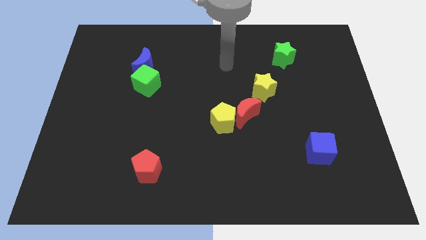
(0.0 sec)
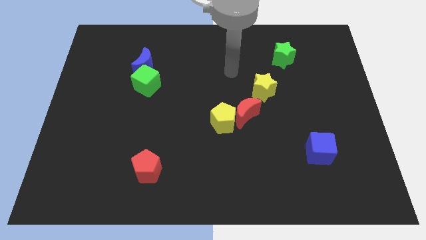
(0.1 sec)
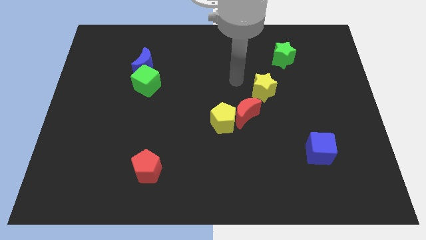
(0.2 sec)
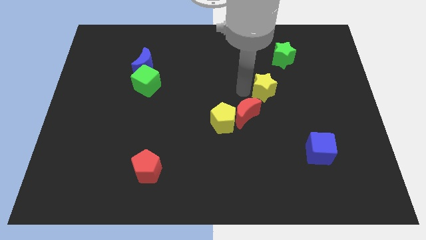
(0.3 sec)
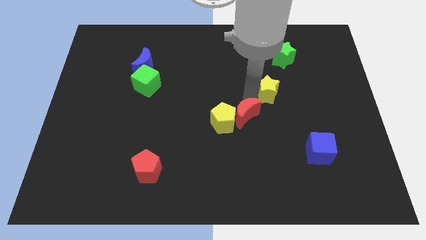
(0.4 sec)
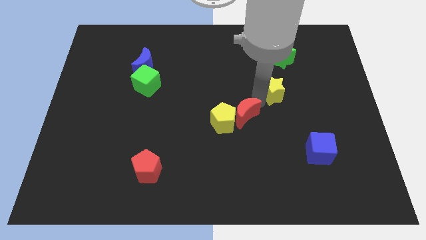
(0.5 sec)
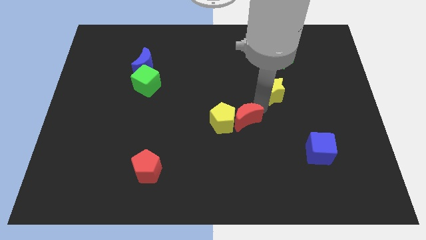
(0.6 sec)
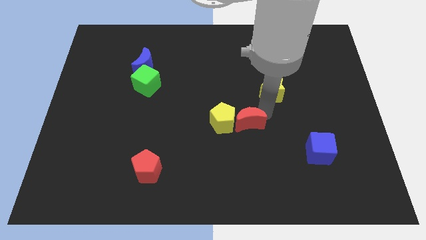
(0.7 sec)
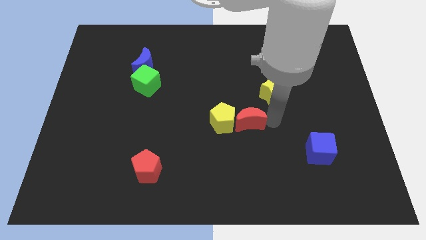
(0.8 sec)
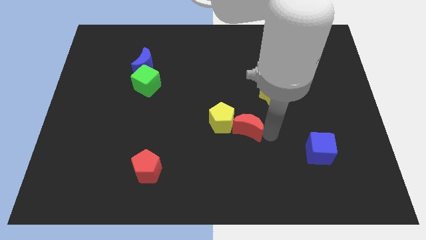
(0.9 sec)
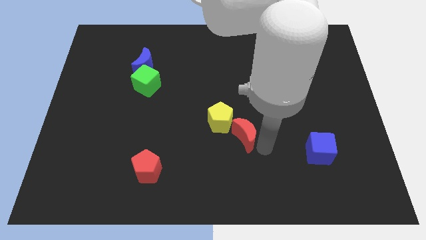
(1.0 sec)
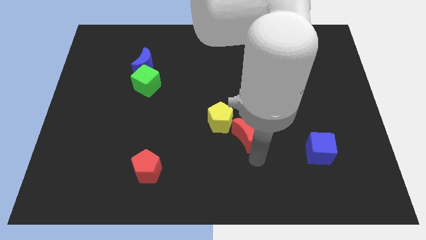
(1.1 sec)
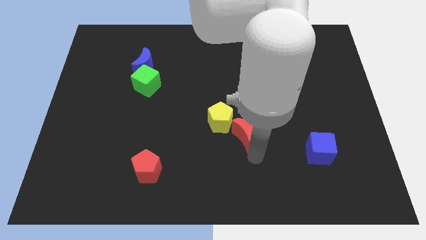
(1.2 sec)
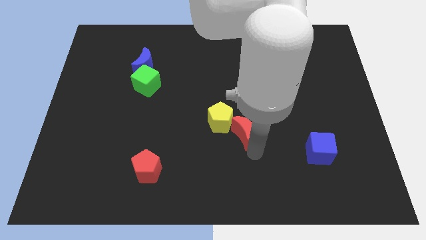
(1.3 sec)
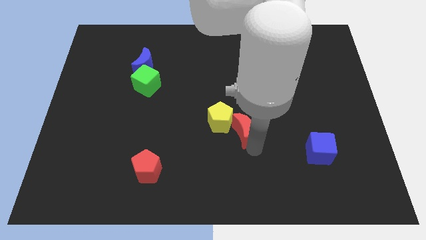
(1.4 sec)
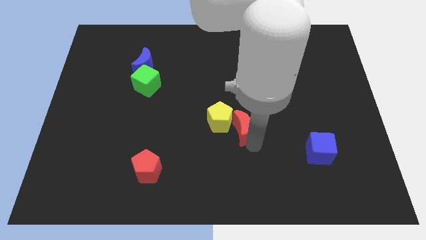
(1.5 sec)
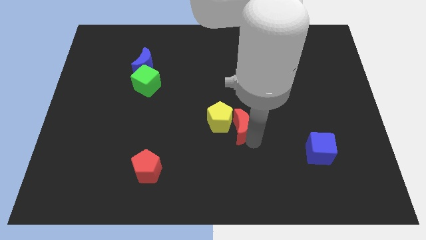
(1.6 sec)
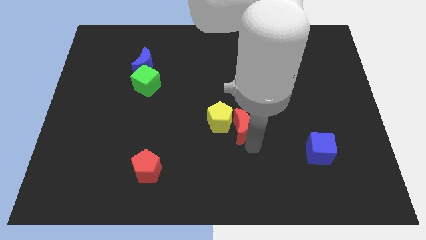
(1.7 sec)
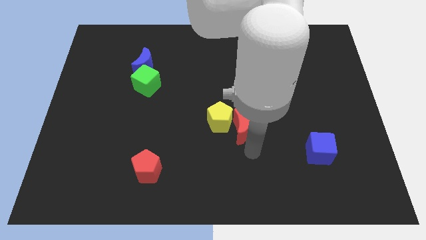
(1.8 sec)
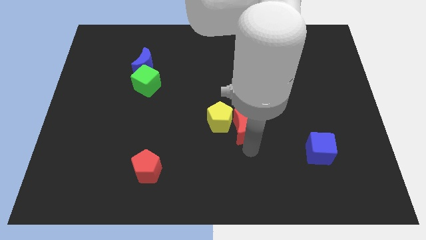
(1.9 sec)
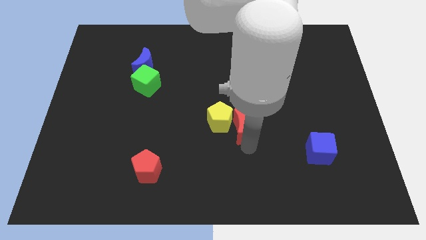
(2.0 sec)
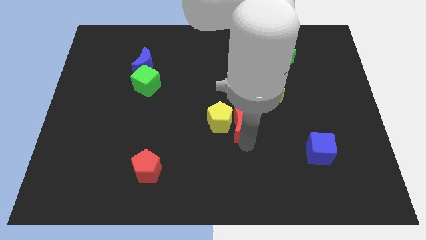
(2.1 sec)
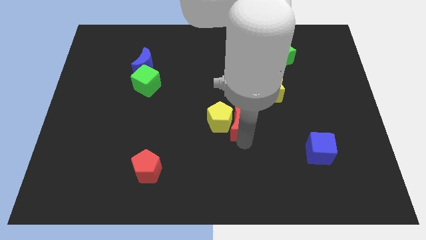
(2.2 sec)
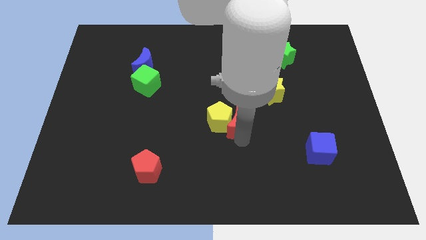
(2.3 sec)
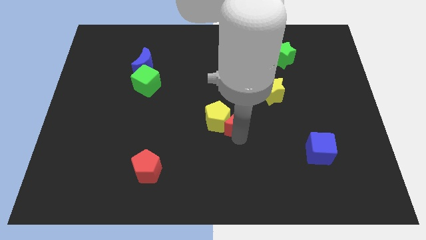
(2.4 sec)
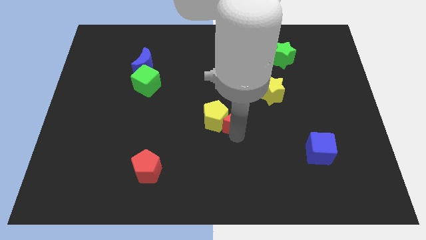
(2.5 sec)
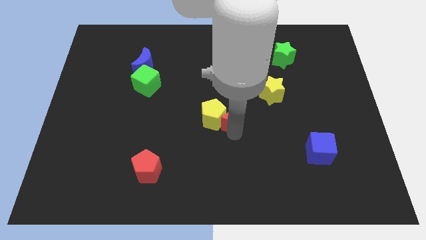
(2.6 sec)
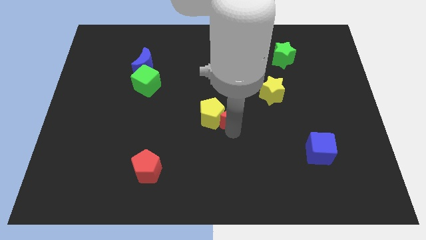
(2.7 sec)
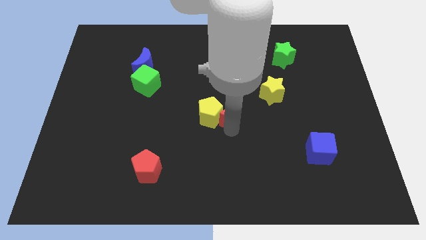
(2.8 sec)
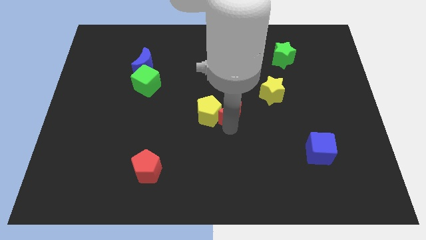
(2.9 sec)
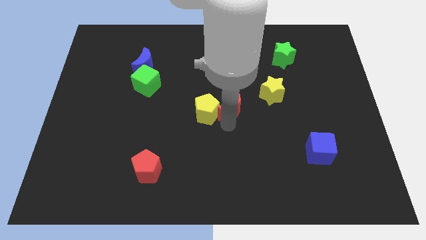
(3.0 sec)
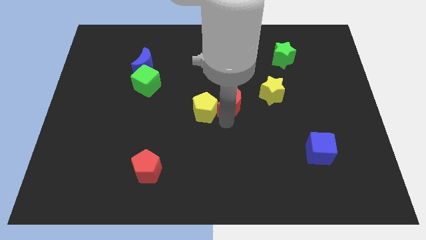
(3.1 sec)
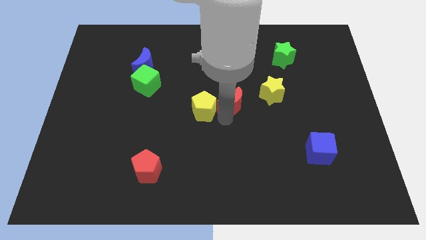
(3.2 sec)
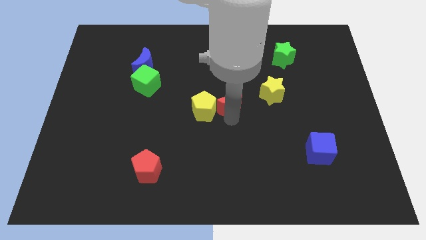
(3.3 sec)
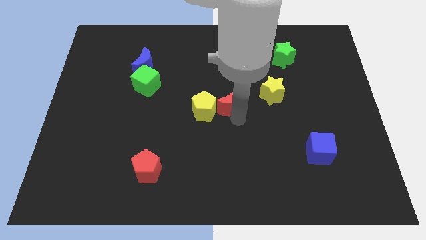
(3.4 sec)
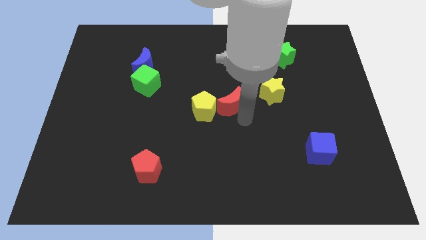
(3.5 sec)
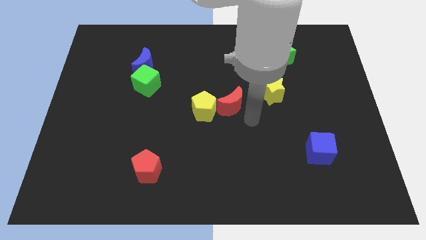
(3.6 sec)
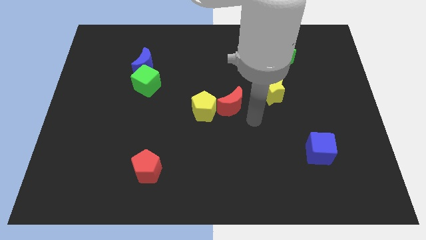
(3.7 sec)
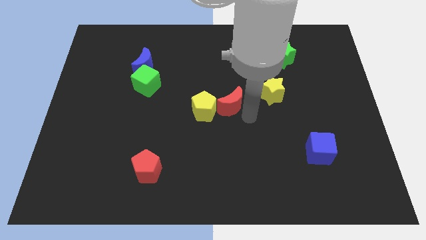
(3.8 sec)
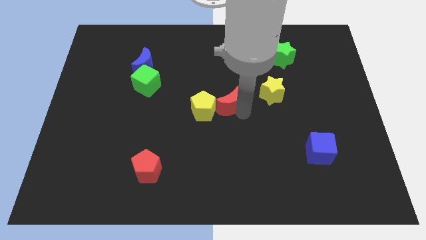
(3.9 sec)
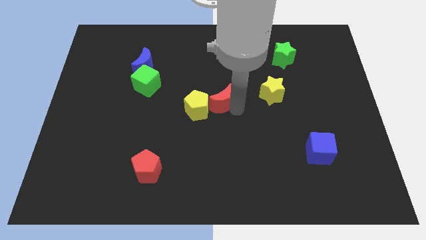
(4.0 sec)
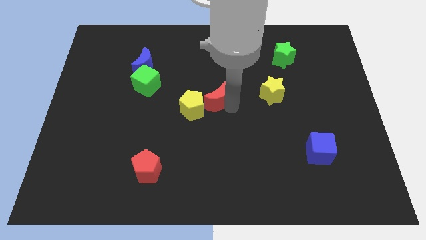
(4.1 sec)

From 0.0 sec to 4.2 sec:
slightly move the red moon up and left

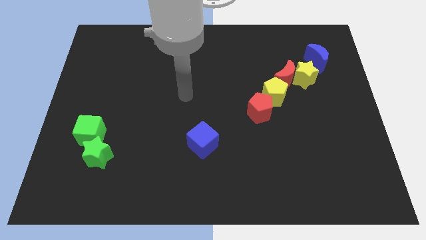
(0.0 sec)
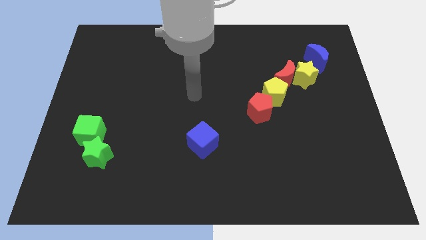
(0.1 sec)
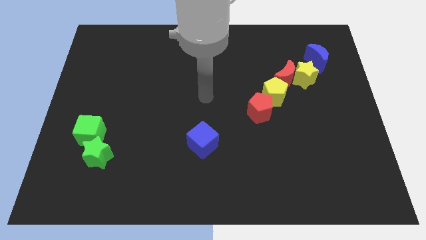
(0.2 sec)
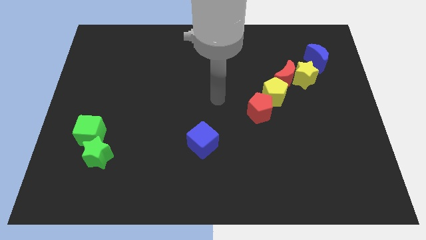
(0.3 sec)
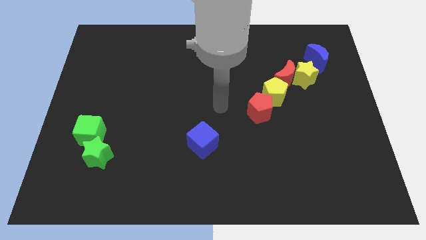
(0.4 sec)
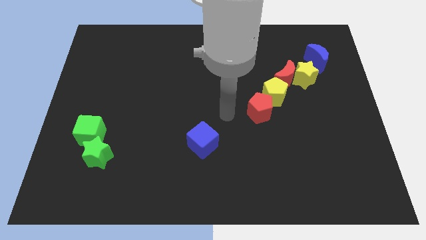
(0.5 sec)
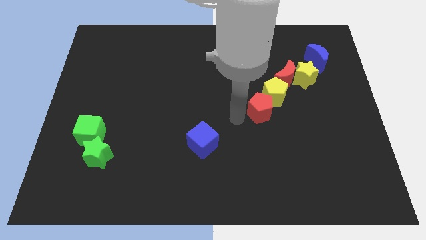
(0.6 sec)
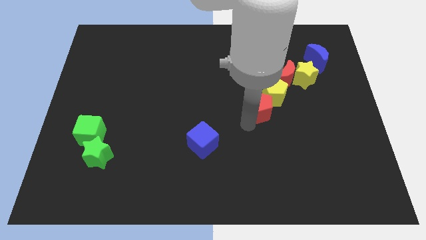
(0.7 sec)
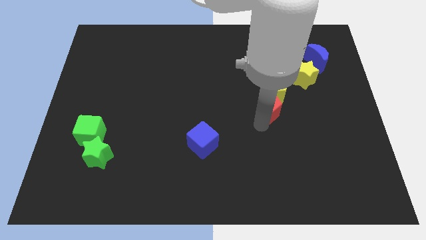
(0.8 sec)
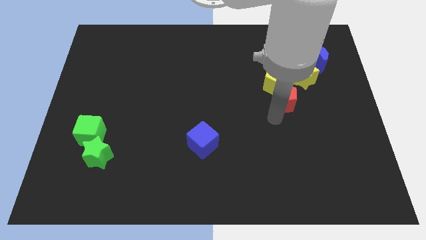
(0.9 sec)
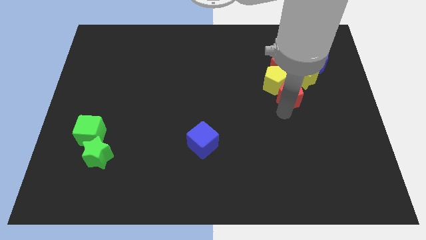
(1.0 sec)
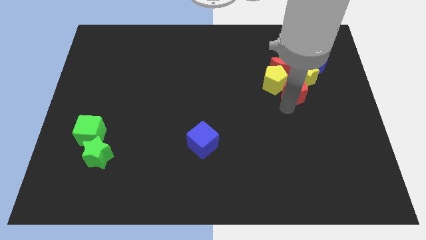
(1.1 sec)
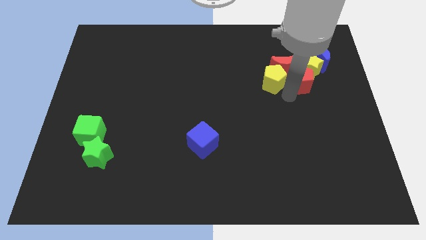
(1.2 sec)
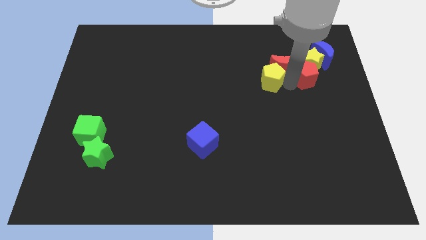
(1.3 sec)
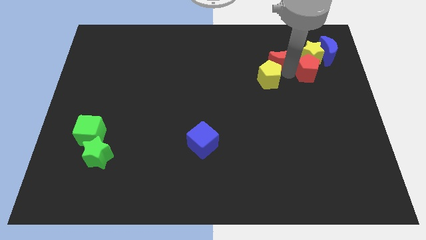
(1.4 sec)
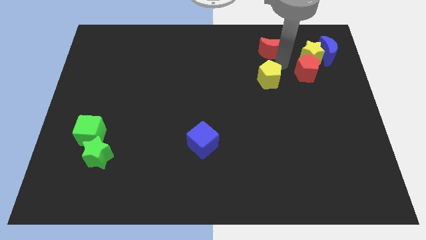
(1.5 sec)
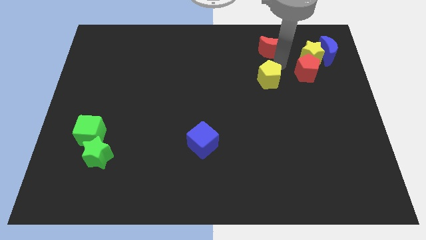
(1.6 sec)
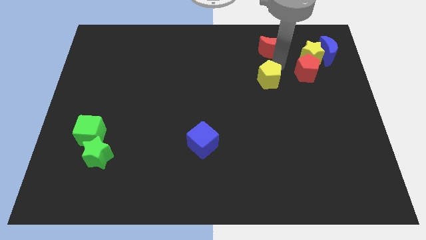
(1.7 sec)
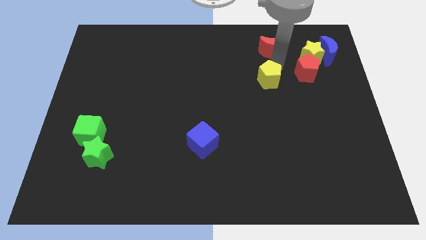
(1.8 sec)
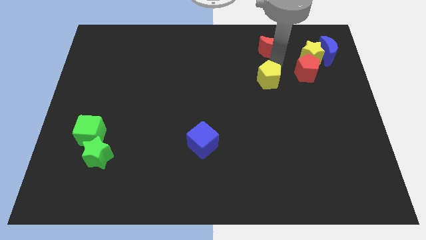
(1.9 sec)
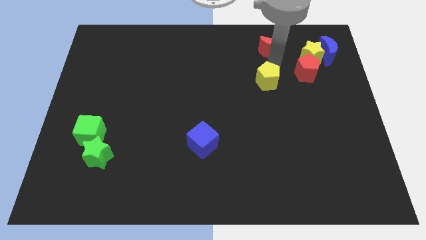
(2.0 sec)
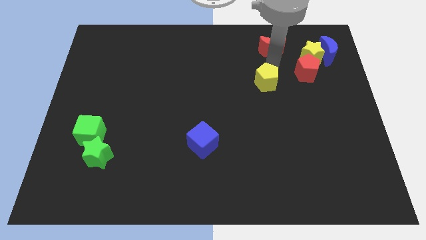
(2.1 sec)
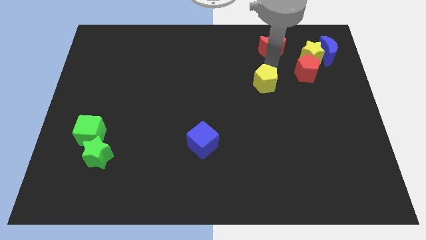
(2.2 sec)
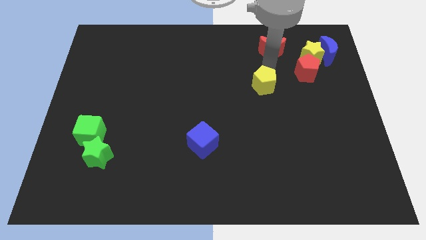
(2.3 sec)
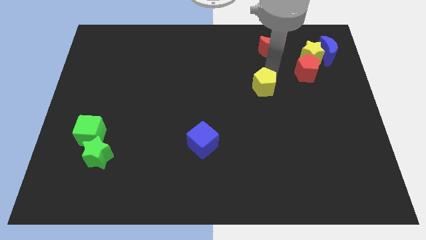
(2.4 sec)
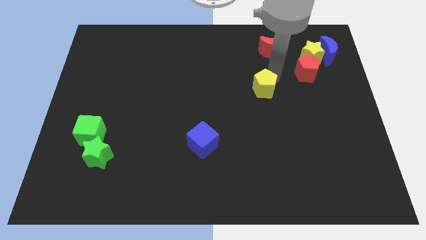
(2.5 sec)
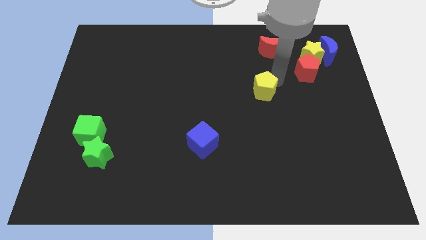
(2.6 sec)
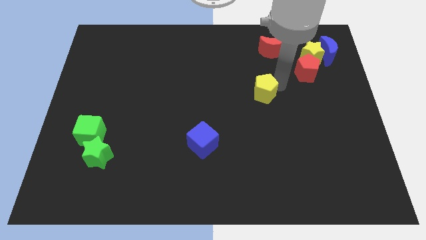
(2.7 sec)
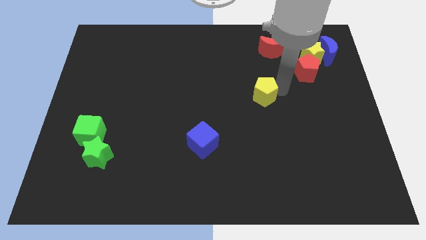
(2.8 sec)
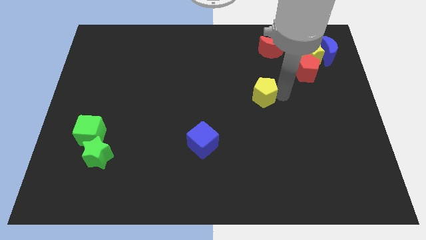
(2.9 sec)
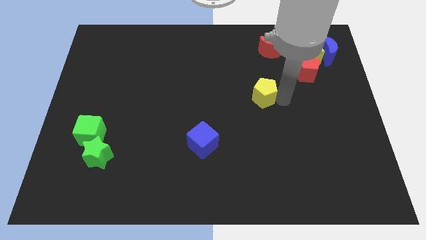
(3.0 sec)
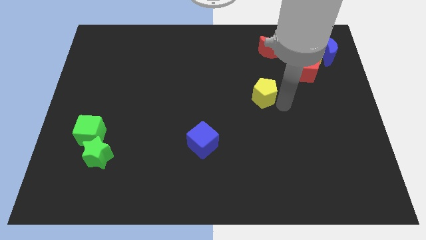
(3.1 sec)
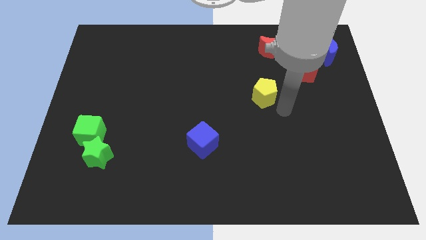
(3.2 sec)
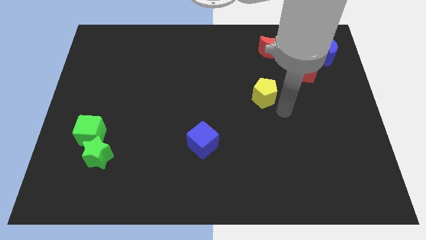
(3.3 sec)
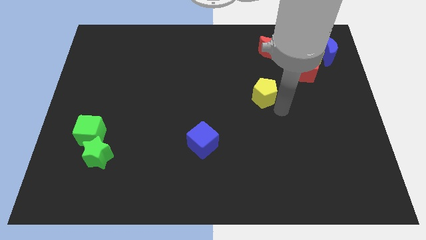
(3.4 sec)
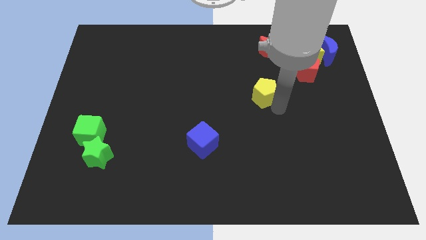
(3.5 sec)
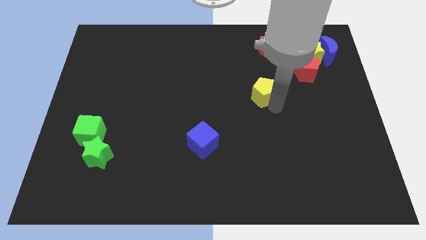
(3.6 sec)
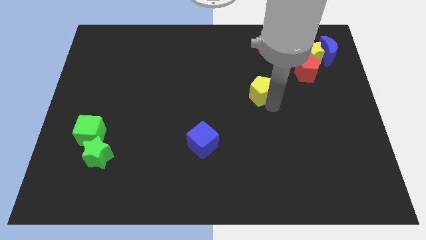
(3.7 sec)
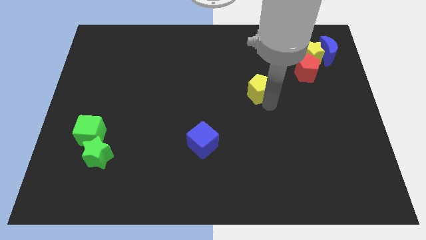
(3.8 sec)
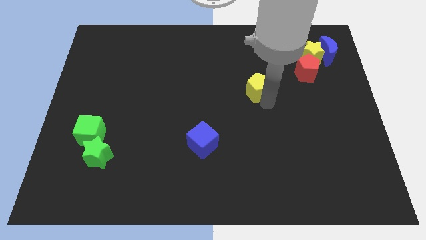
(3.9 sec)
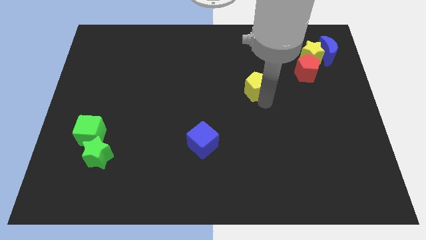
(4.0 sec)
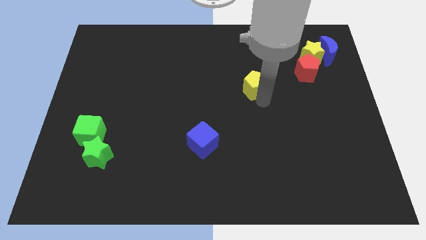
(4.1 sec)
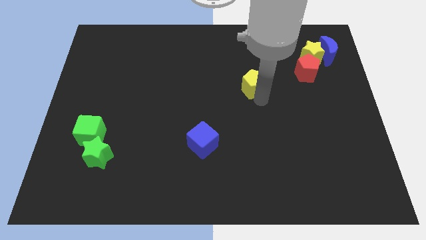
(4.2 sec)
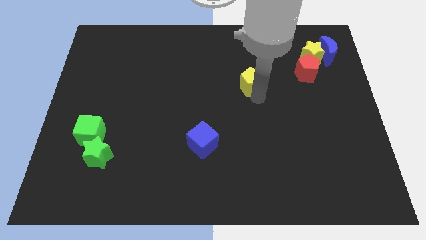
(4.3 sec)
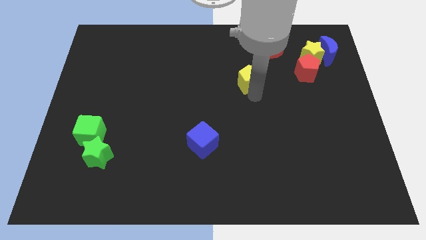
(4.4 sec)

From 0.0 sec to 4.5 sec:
move the yellow pentagon a little bit up and left diagonally
